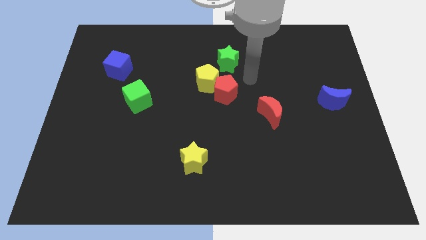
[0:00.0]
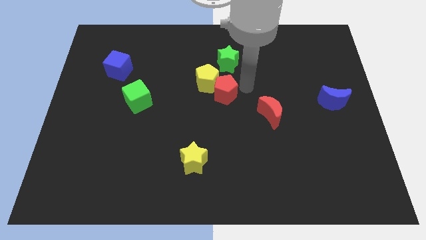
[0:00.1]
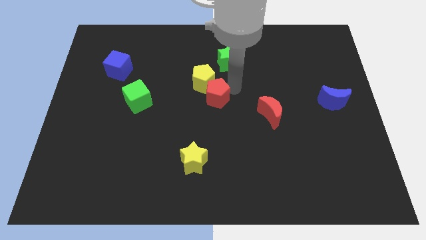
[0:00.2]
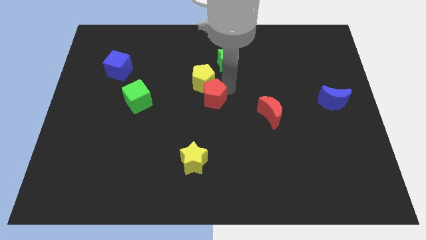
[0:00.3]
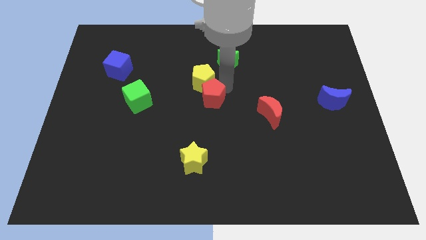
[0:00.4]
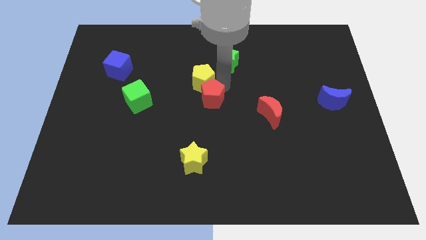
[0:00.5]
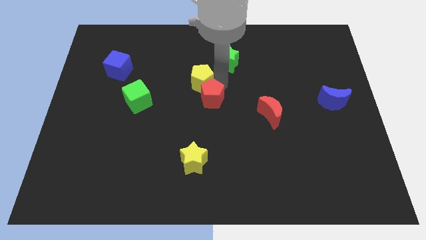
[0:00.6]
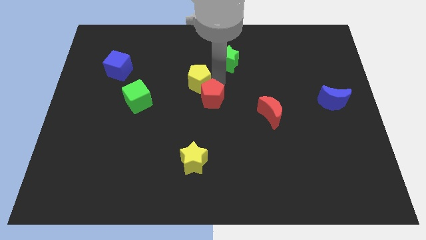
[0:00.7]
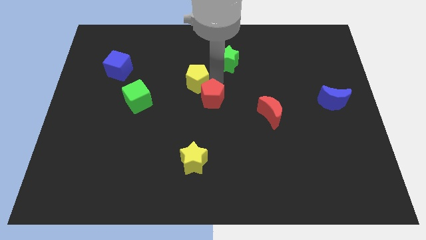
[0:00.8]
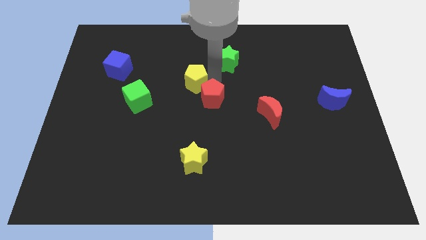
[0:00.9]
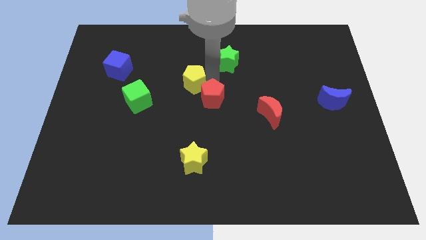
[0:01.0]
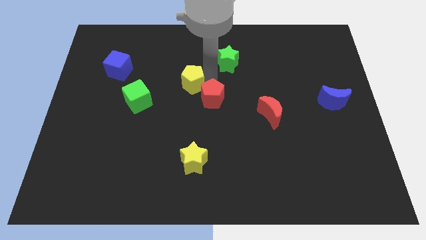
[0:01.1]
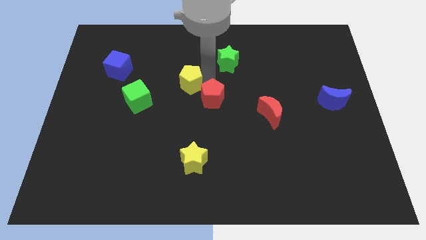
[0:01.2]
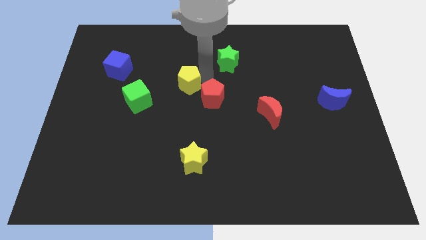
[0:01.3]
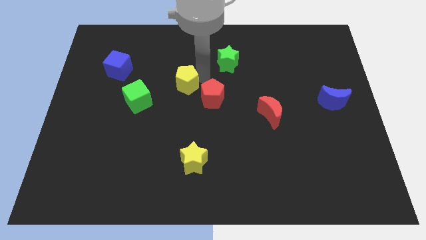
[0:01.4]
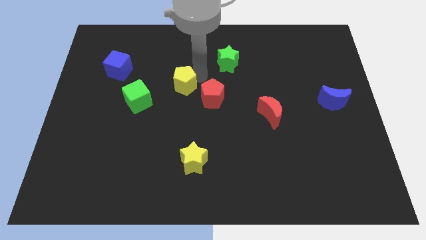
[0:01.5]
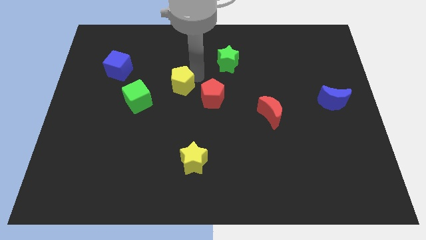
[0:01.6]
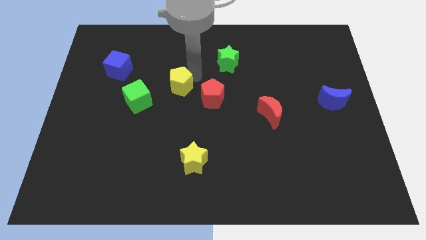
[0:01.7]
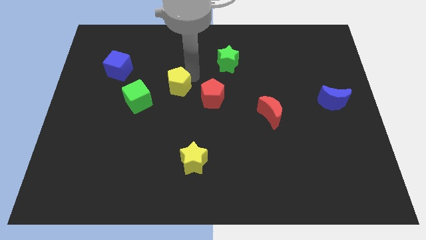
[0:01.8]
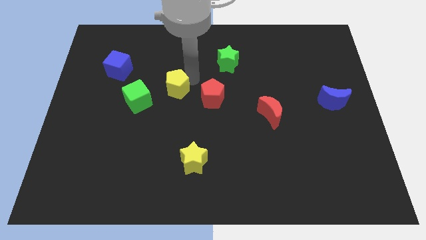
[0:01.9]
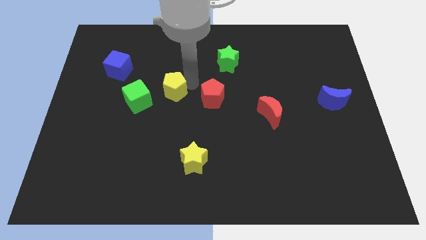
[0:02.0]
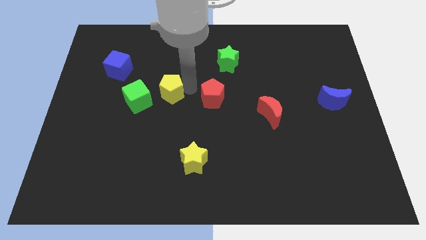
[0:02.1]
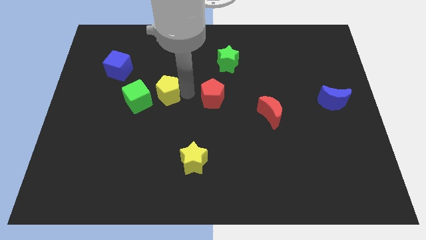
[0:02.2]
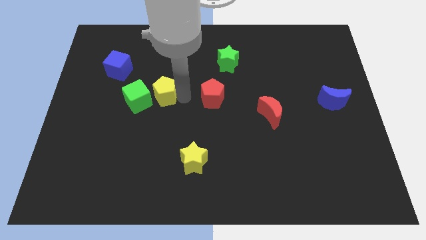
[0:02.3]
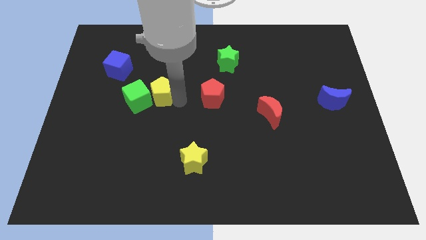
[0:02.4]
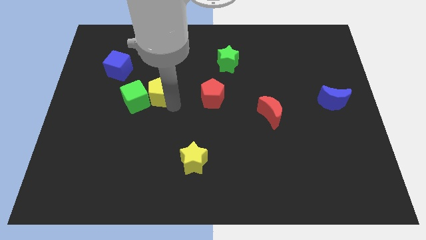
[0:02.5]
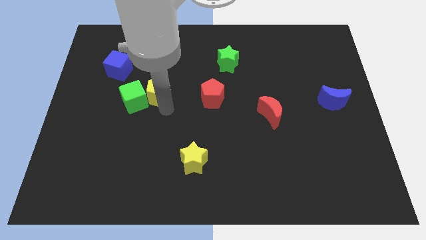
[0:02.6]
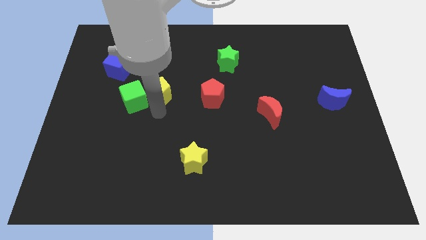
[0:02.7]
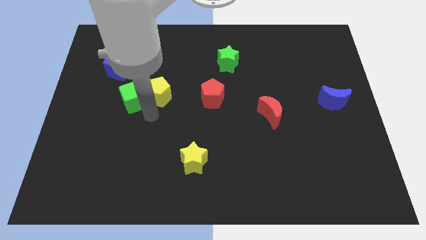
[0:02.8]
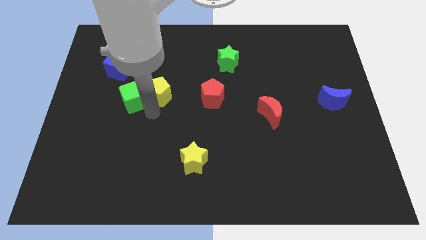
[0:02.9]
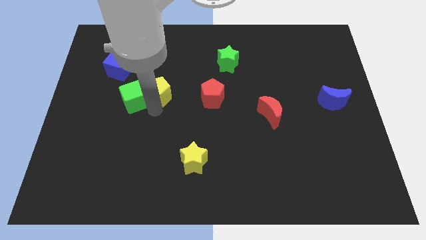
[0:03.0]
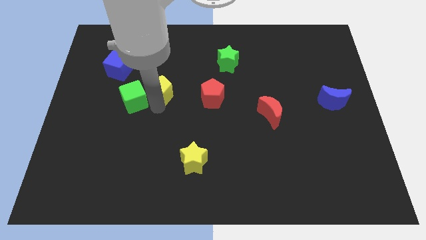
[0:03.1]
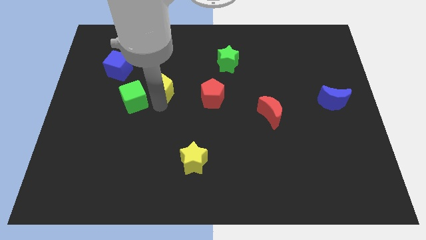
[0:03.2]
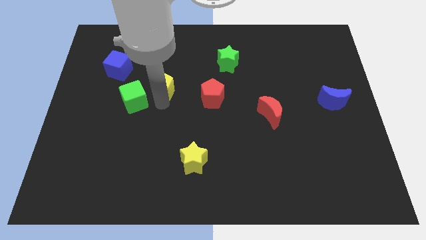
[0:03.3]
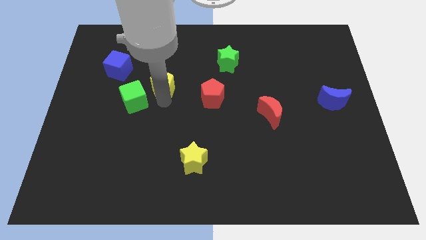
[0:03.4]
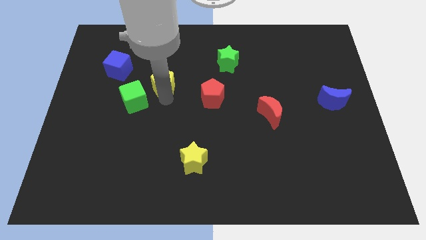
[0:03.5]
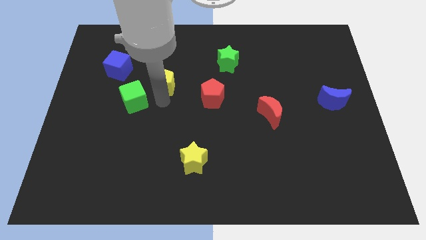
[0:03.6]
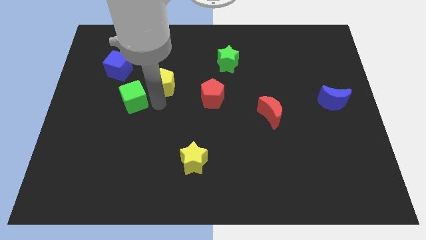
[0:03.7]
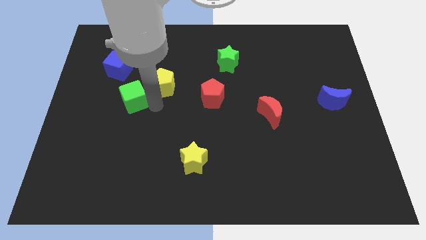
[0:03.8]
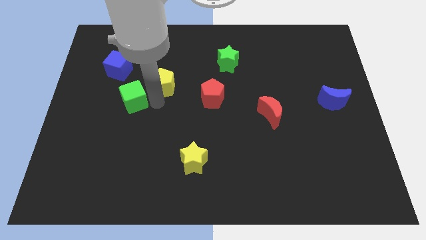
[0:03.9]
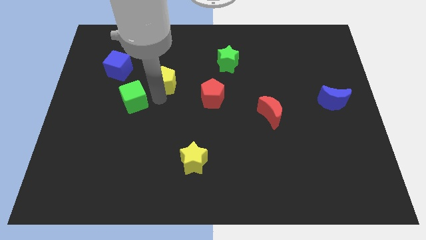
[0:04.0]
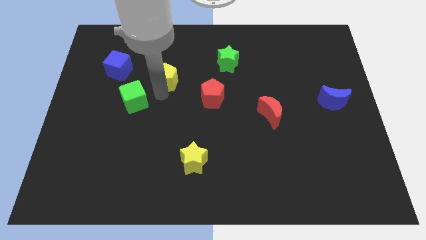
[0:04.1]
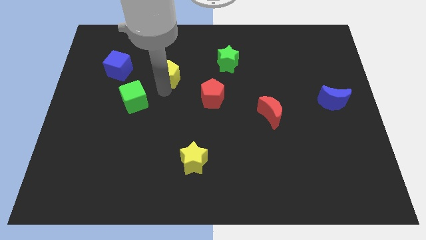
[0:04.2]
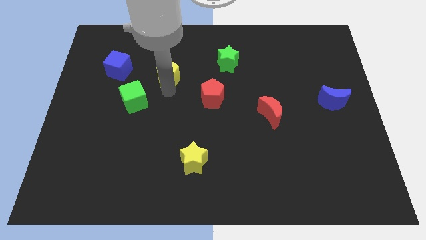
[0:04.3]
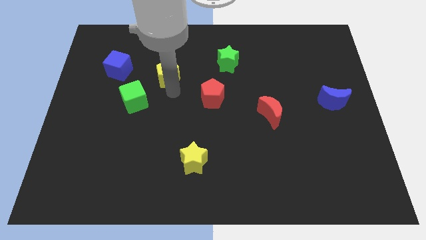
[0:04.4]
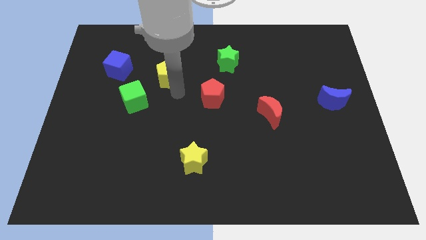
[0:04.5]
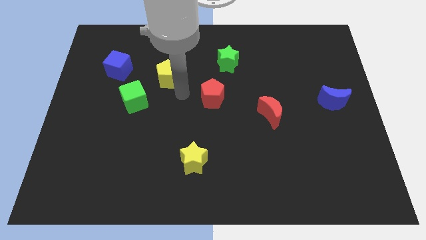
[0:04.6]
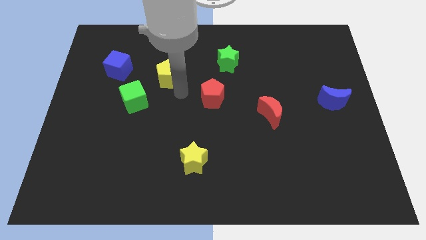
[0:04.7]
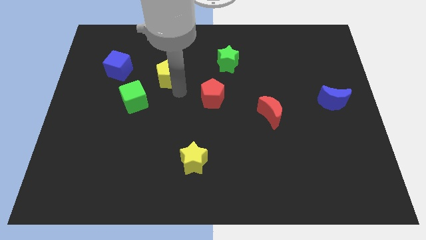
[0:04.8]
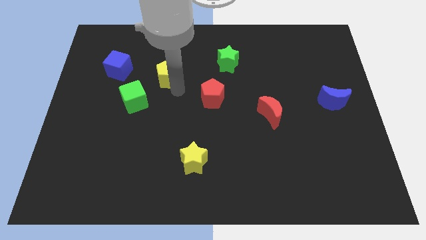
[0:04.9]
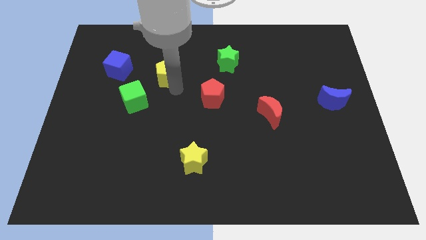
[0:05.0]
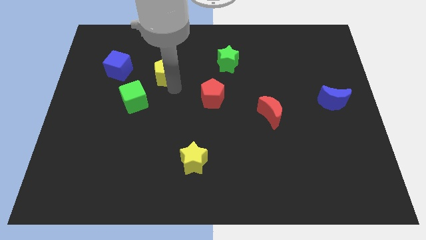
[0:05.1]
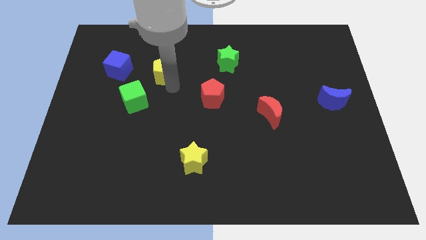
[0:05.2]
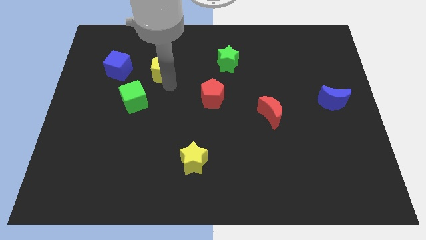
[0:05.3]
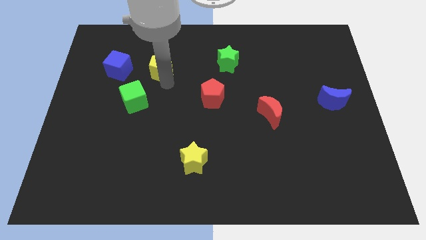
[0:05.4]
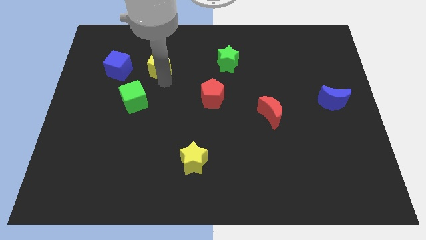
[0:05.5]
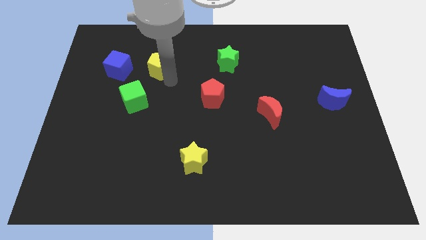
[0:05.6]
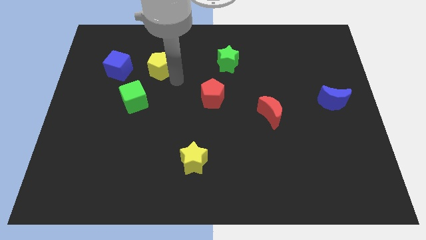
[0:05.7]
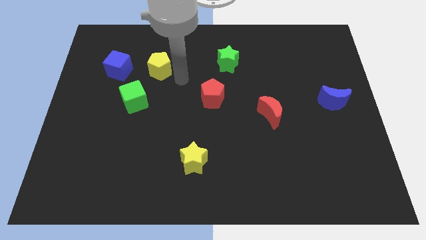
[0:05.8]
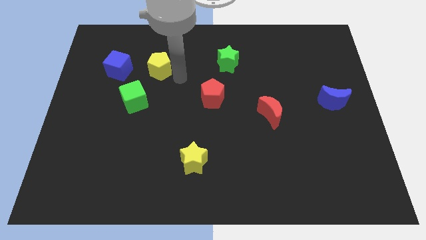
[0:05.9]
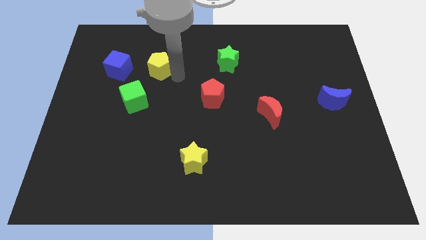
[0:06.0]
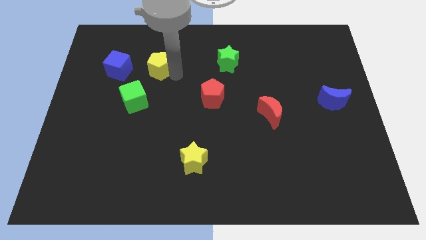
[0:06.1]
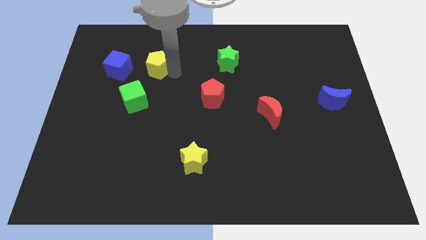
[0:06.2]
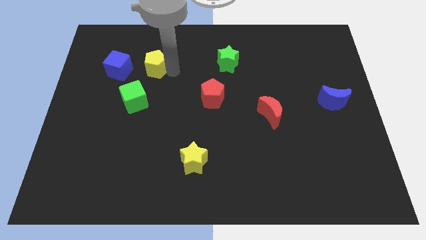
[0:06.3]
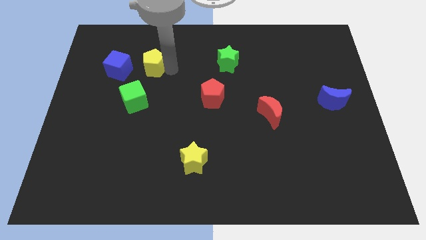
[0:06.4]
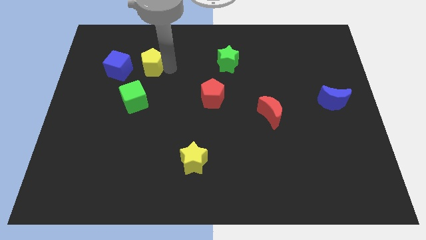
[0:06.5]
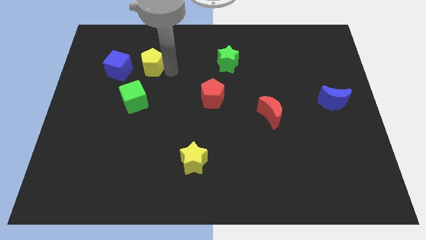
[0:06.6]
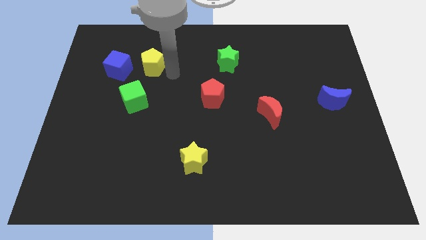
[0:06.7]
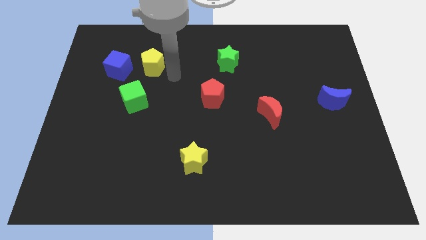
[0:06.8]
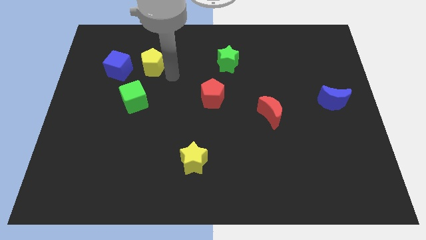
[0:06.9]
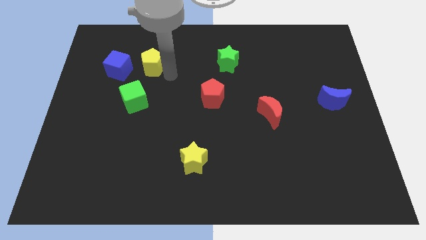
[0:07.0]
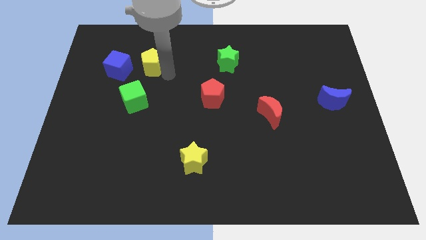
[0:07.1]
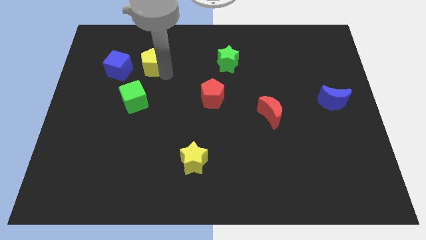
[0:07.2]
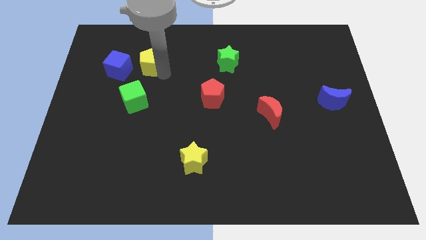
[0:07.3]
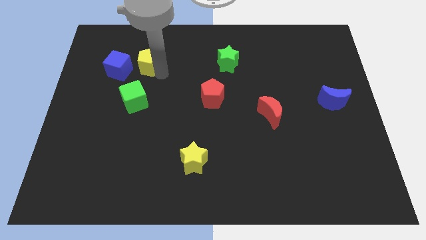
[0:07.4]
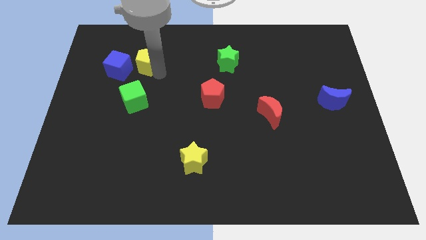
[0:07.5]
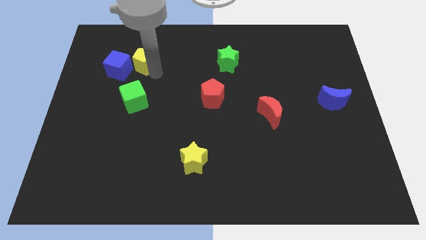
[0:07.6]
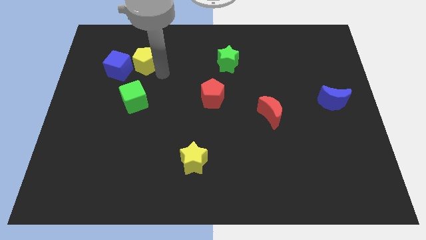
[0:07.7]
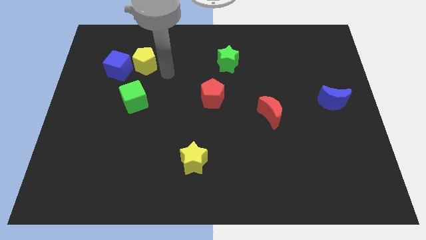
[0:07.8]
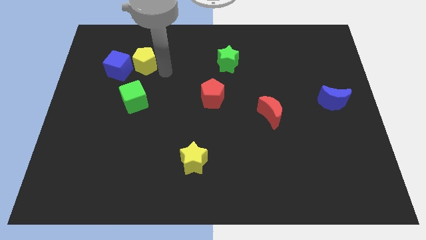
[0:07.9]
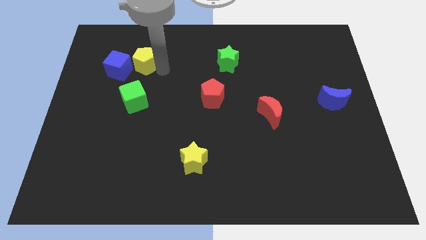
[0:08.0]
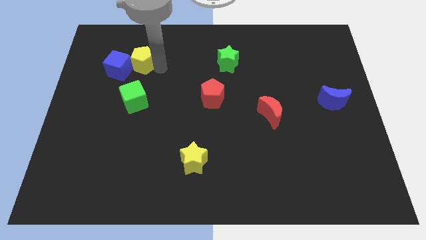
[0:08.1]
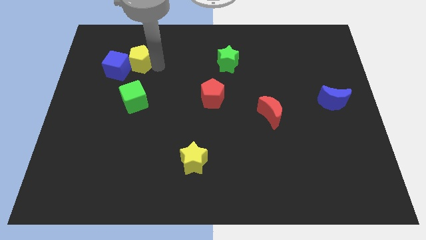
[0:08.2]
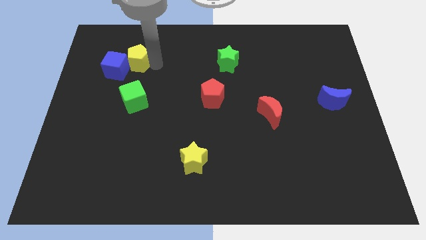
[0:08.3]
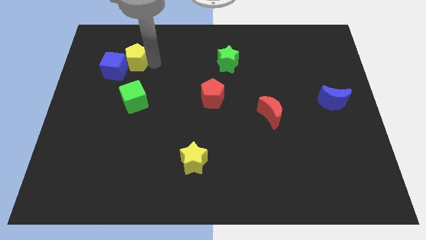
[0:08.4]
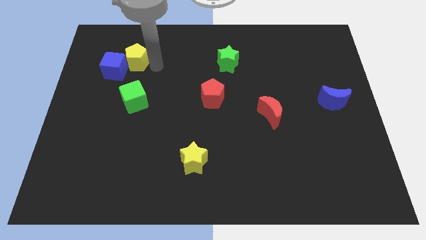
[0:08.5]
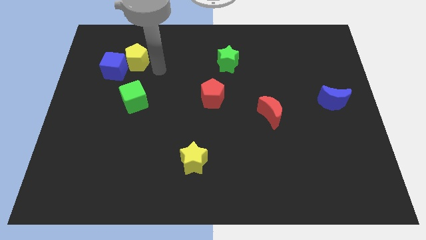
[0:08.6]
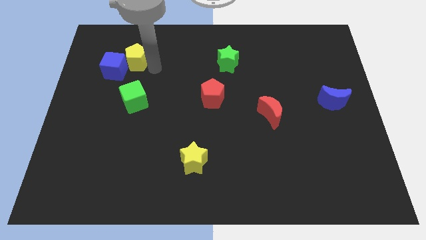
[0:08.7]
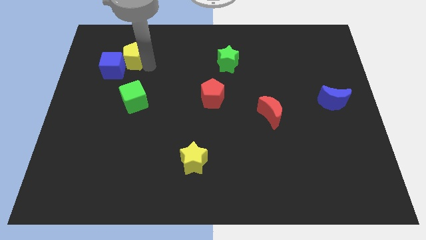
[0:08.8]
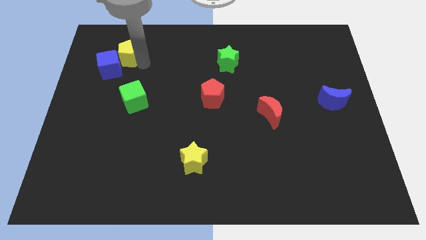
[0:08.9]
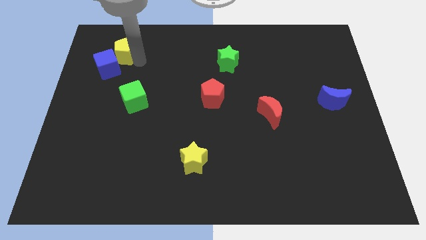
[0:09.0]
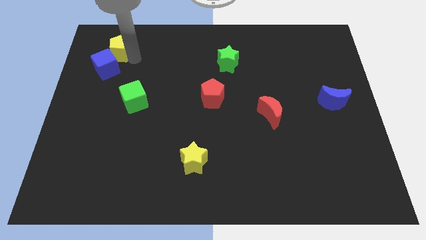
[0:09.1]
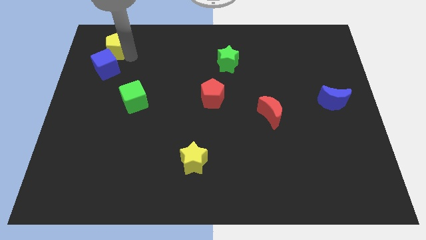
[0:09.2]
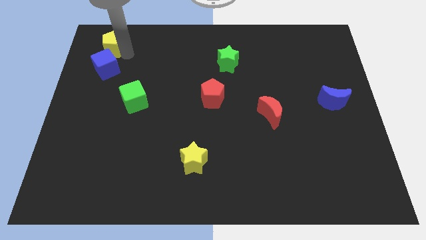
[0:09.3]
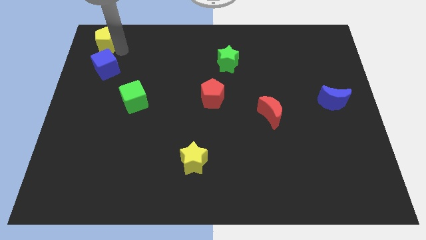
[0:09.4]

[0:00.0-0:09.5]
push the yellow pentagon to the top left corner
